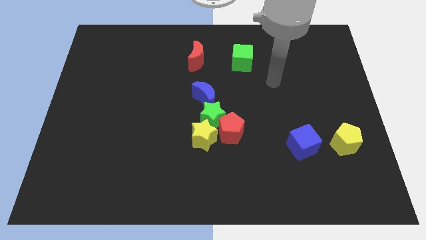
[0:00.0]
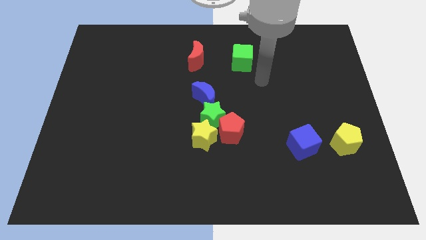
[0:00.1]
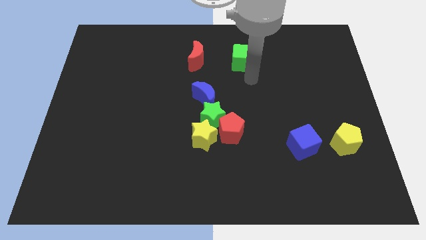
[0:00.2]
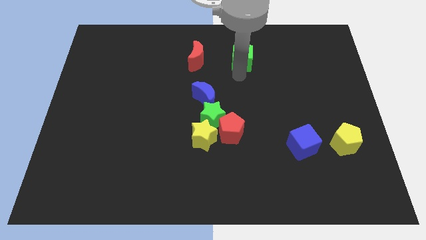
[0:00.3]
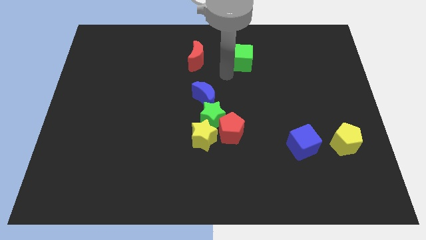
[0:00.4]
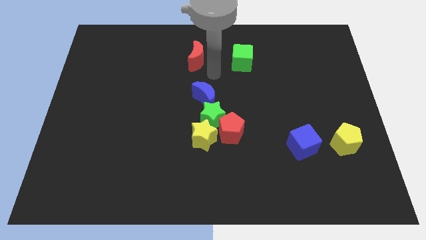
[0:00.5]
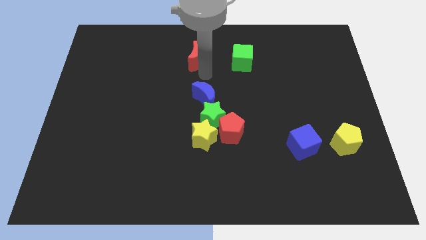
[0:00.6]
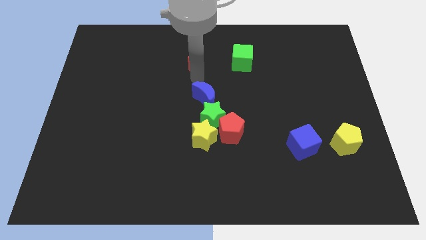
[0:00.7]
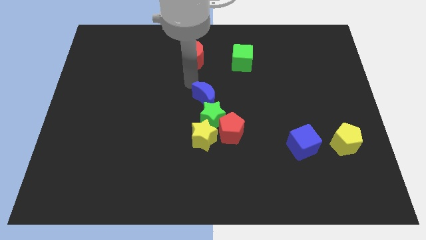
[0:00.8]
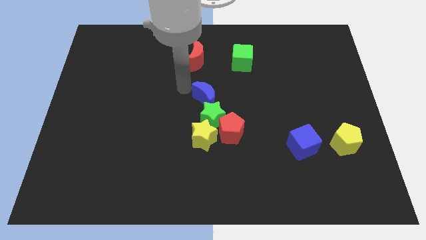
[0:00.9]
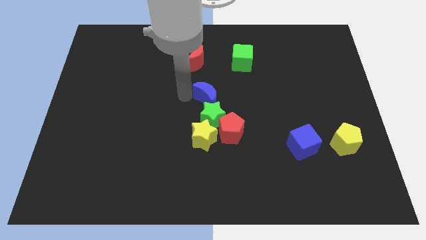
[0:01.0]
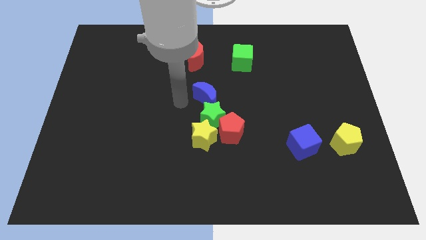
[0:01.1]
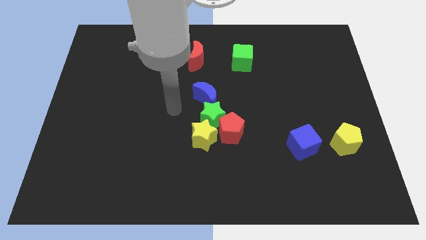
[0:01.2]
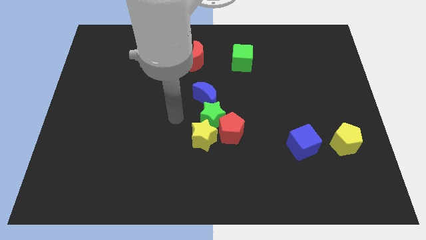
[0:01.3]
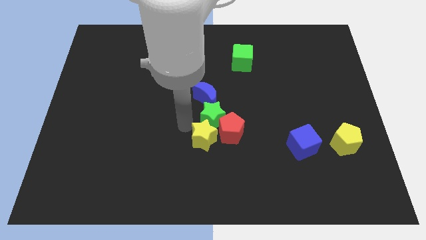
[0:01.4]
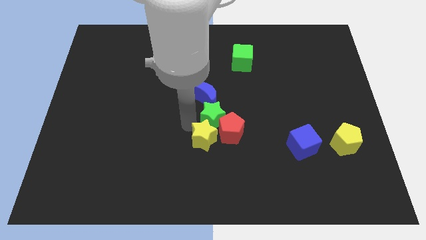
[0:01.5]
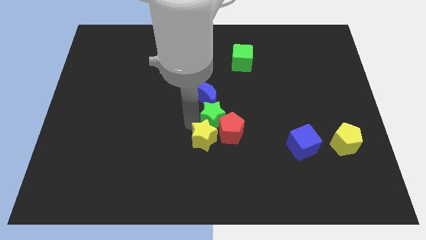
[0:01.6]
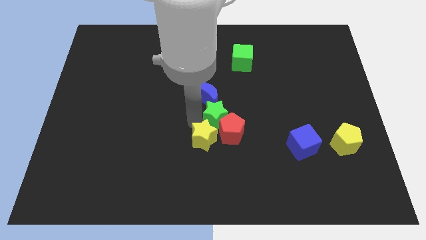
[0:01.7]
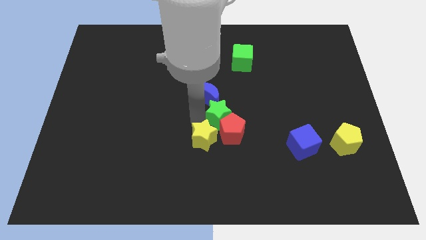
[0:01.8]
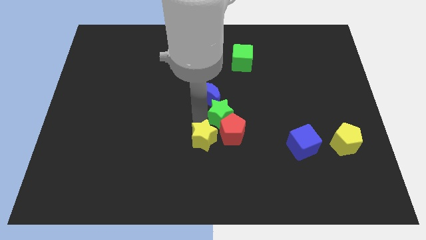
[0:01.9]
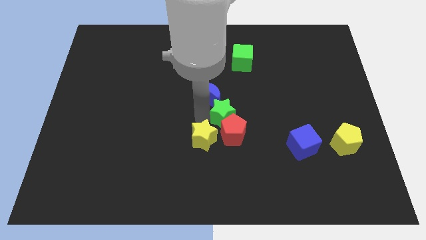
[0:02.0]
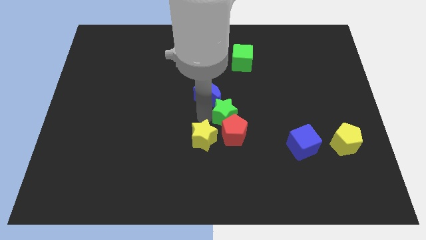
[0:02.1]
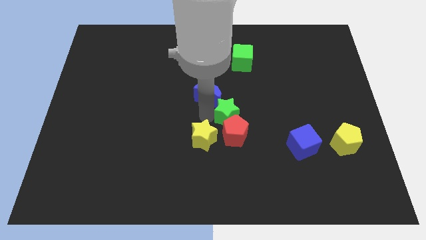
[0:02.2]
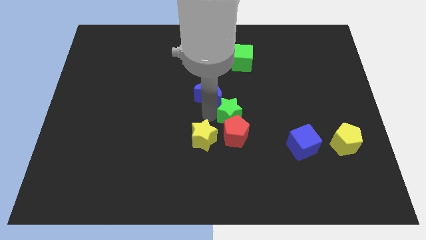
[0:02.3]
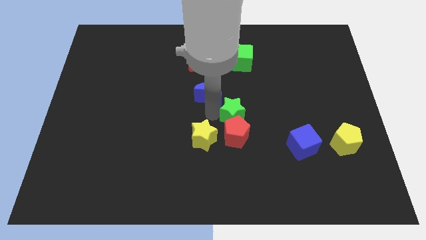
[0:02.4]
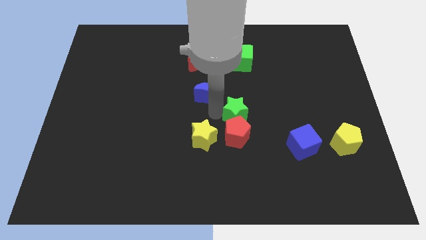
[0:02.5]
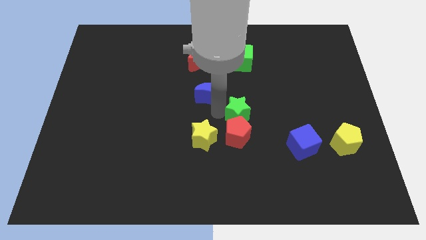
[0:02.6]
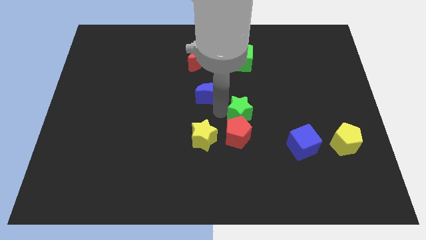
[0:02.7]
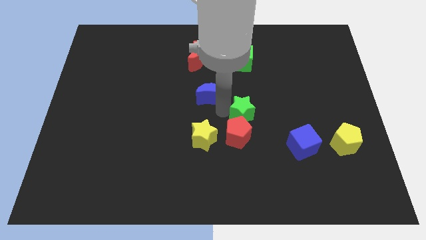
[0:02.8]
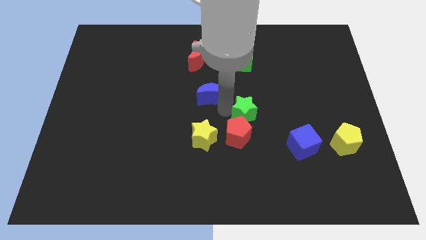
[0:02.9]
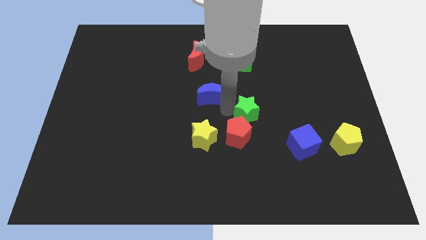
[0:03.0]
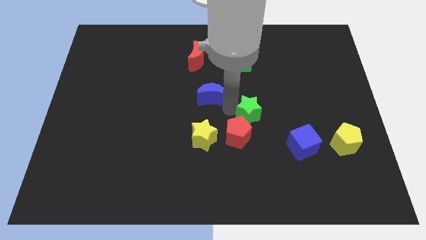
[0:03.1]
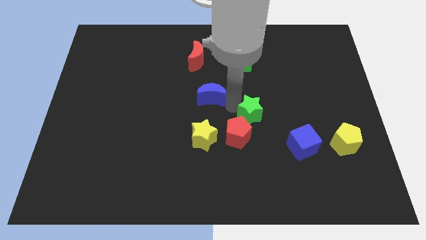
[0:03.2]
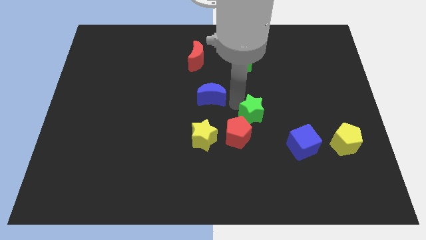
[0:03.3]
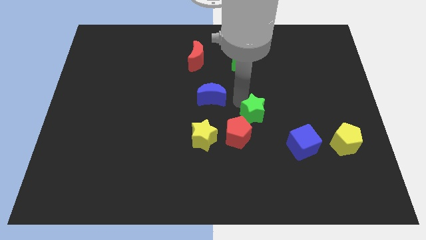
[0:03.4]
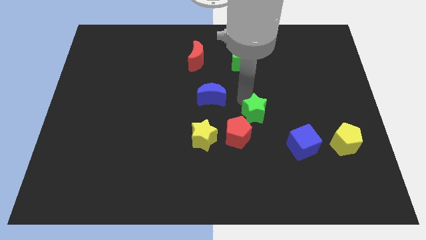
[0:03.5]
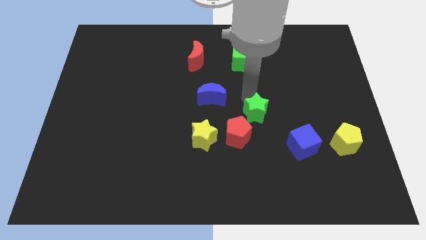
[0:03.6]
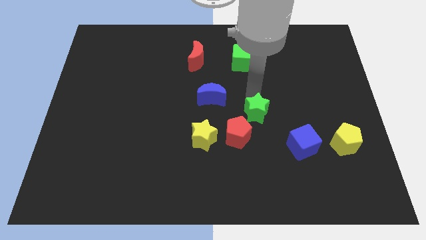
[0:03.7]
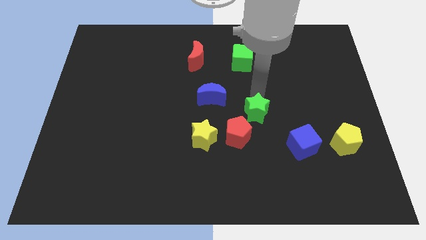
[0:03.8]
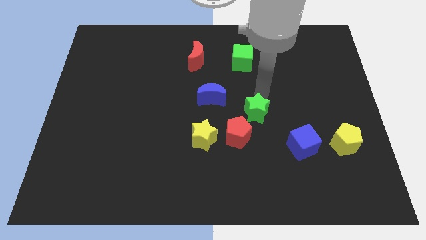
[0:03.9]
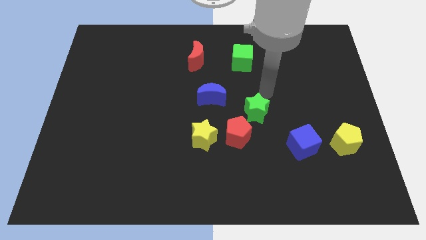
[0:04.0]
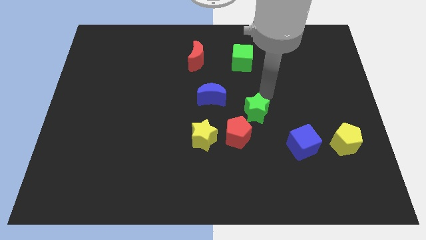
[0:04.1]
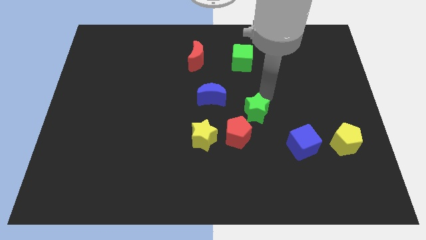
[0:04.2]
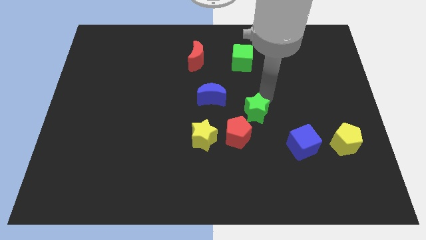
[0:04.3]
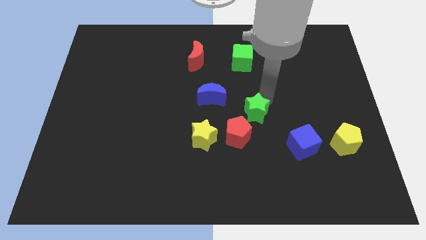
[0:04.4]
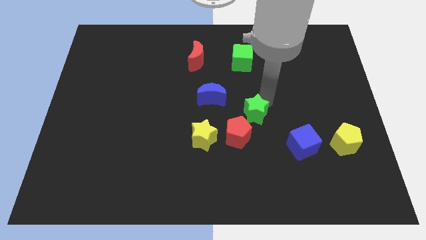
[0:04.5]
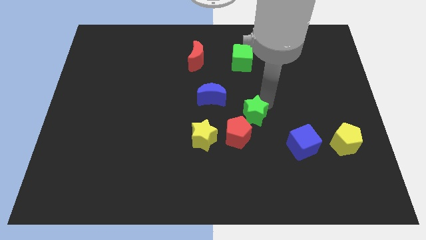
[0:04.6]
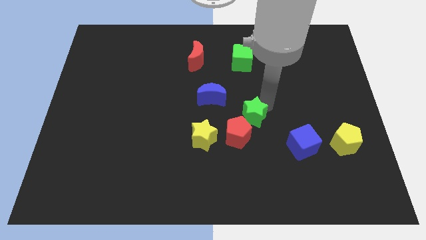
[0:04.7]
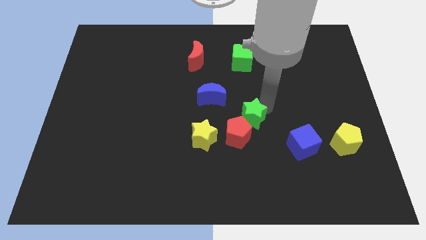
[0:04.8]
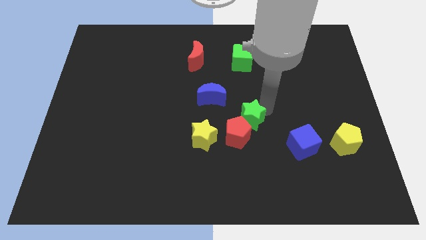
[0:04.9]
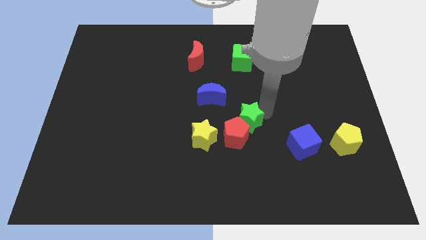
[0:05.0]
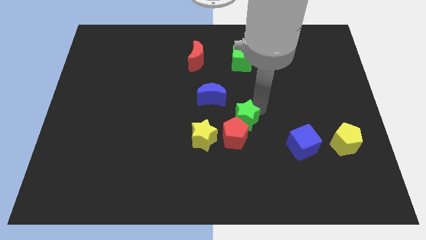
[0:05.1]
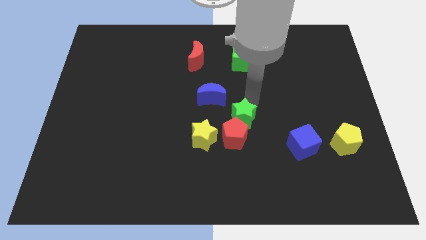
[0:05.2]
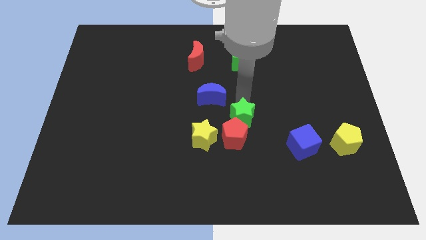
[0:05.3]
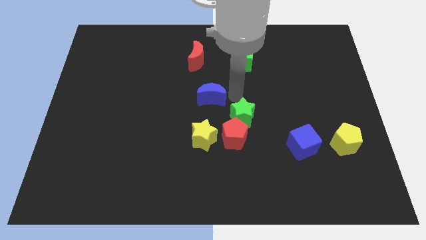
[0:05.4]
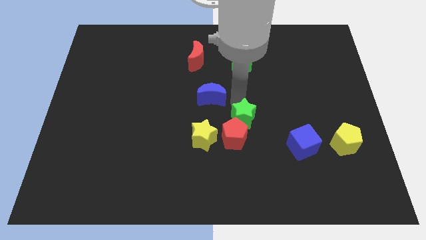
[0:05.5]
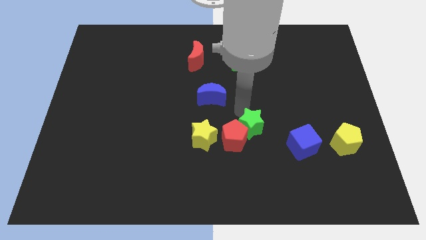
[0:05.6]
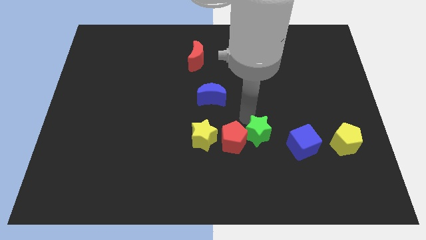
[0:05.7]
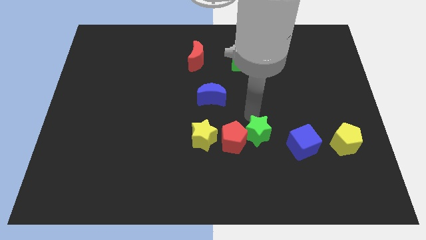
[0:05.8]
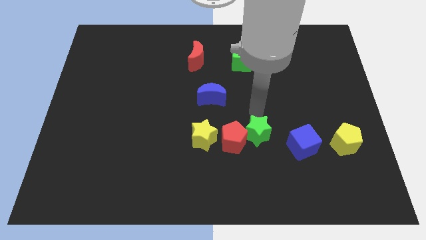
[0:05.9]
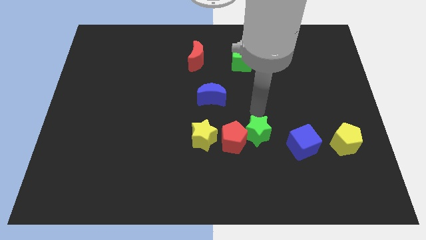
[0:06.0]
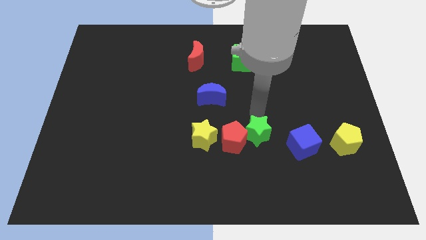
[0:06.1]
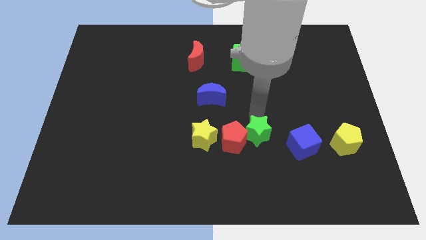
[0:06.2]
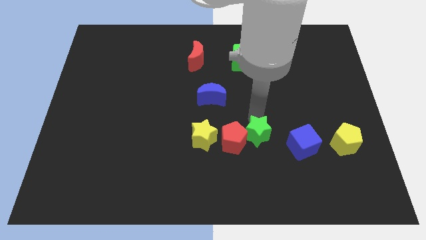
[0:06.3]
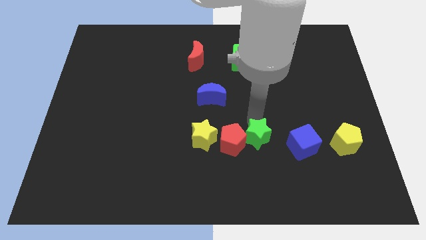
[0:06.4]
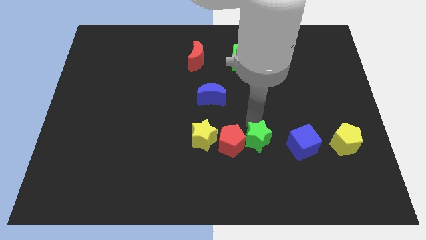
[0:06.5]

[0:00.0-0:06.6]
move the green star diagonally down and to the right of the red pentagon
